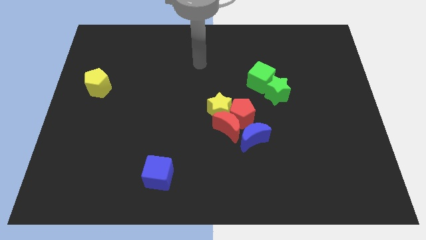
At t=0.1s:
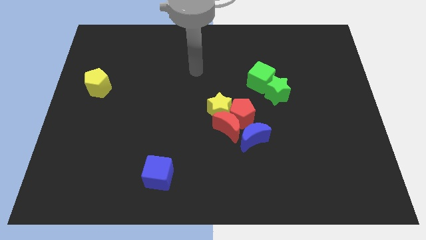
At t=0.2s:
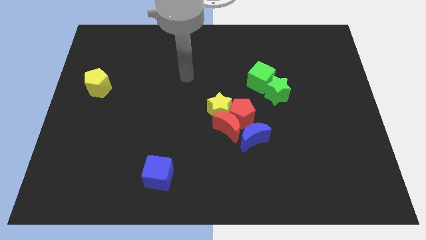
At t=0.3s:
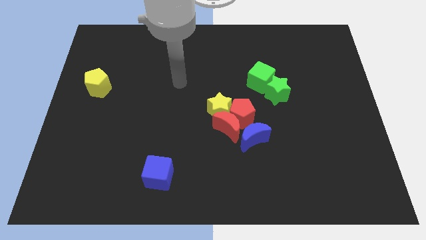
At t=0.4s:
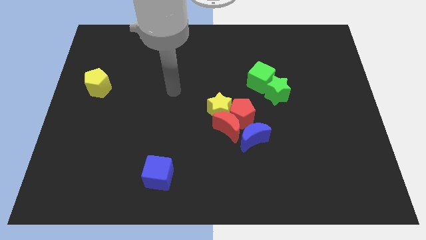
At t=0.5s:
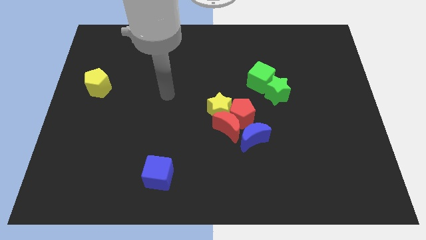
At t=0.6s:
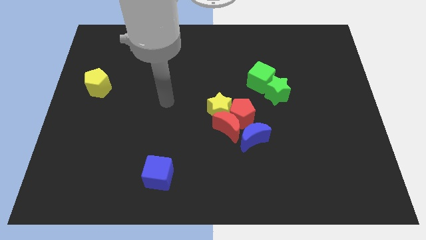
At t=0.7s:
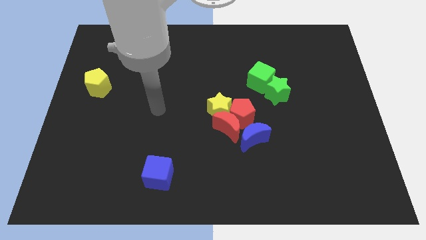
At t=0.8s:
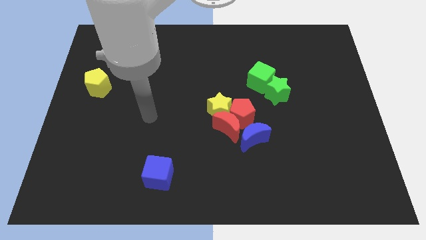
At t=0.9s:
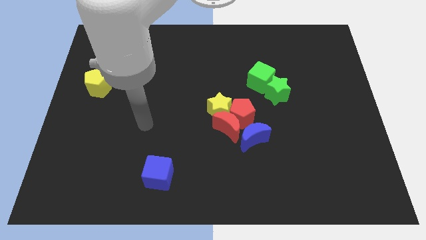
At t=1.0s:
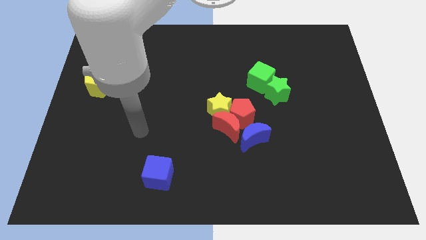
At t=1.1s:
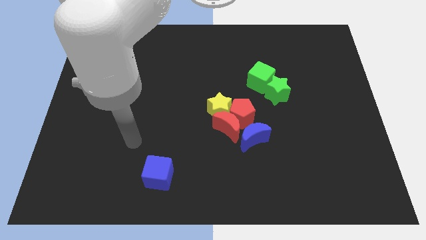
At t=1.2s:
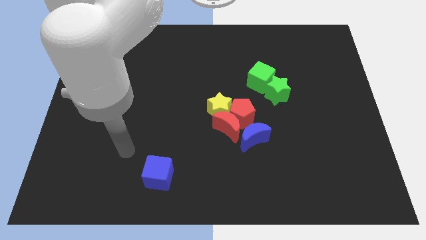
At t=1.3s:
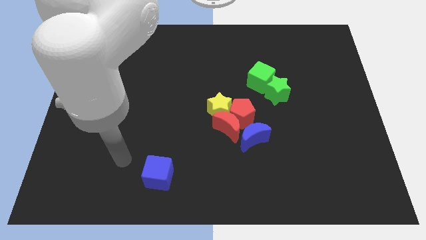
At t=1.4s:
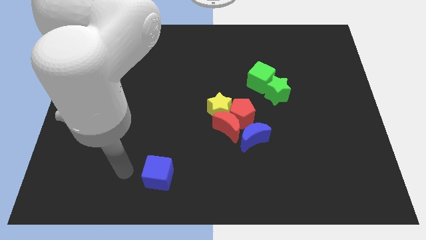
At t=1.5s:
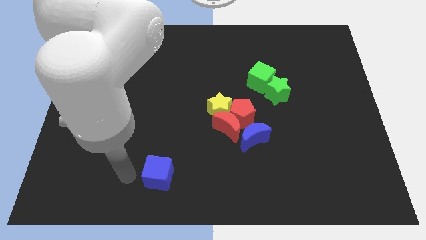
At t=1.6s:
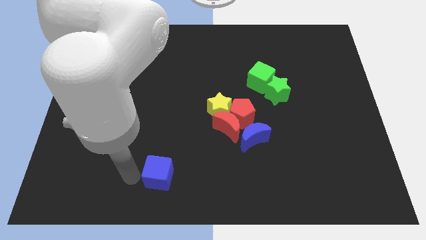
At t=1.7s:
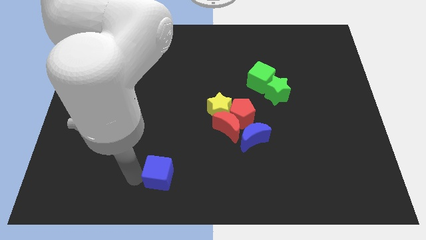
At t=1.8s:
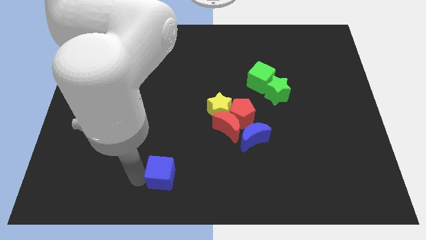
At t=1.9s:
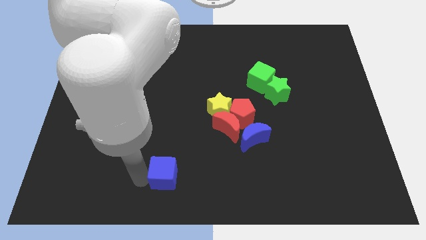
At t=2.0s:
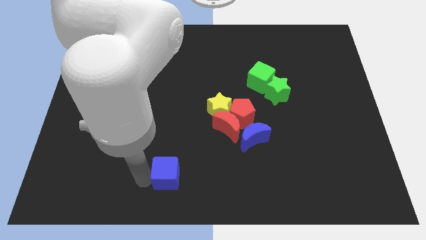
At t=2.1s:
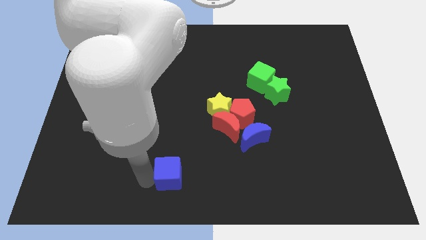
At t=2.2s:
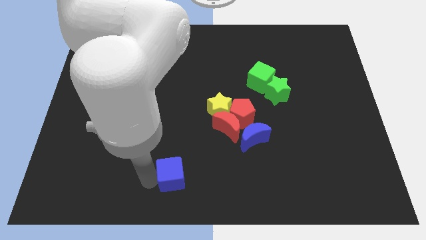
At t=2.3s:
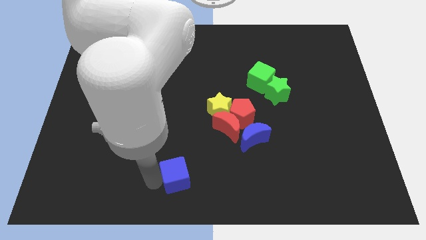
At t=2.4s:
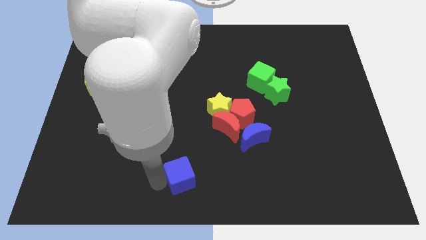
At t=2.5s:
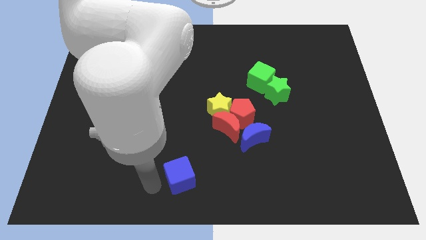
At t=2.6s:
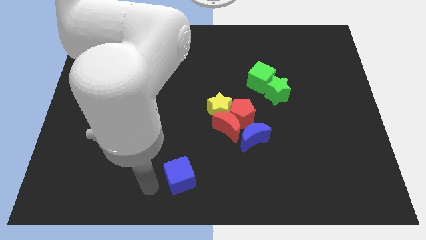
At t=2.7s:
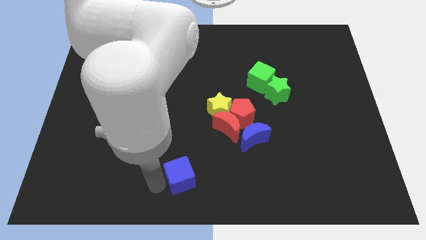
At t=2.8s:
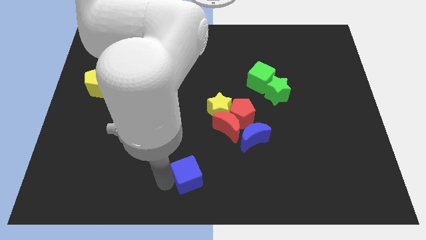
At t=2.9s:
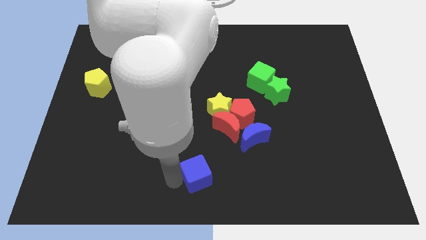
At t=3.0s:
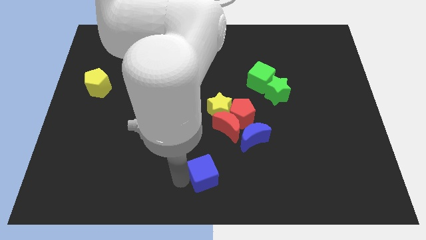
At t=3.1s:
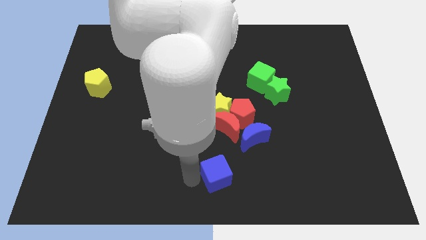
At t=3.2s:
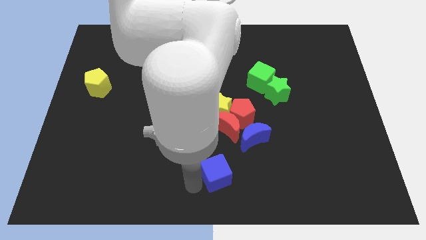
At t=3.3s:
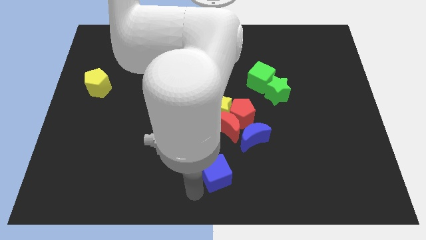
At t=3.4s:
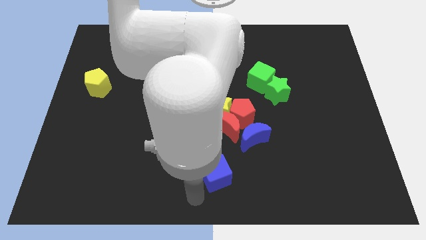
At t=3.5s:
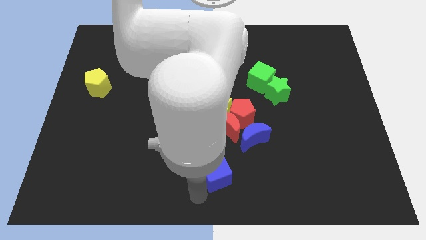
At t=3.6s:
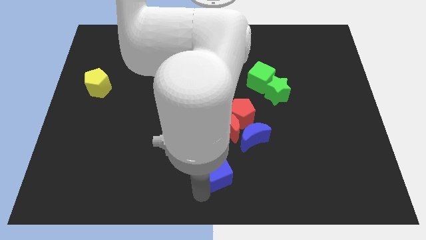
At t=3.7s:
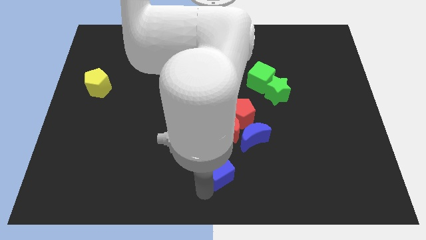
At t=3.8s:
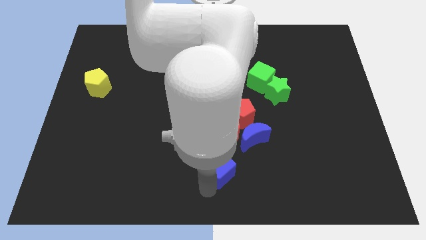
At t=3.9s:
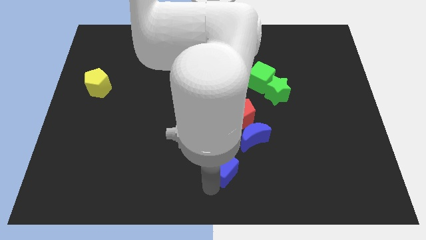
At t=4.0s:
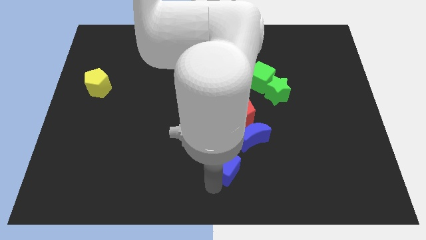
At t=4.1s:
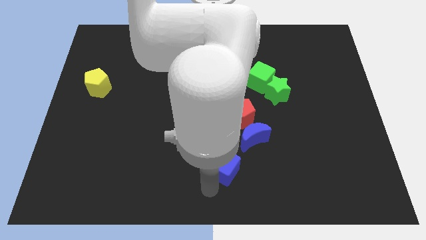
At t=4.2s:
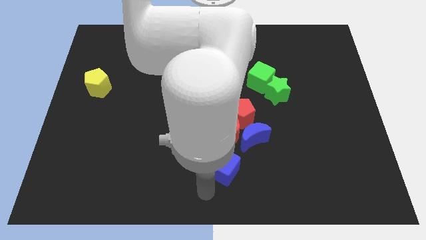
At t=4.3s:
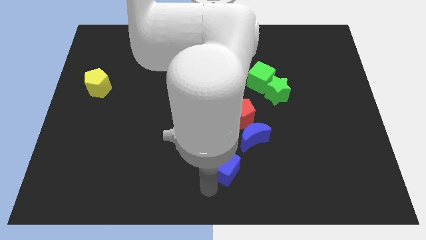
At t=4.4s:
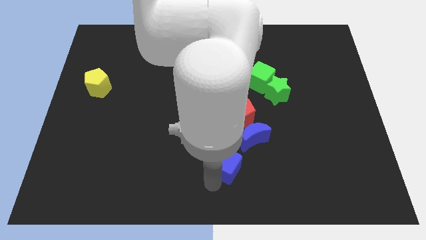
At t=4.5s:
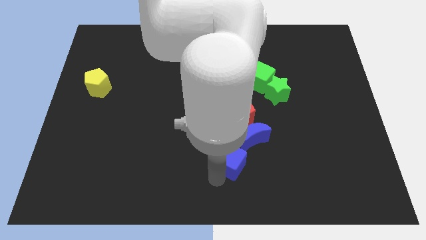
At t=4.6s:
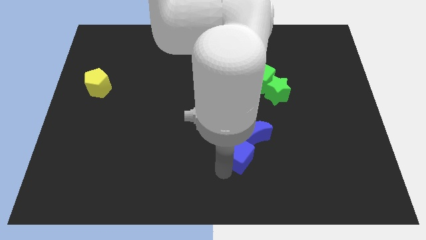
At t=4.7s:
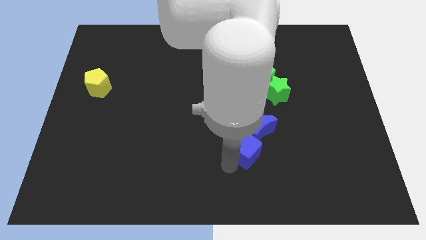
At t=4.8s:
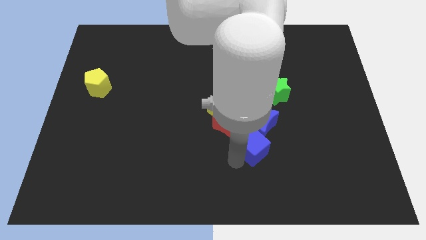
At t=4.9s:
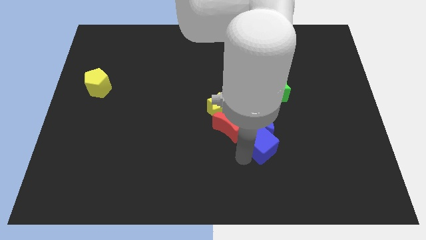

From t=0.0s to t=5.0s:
slide the blue cube close to the blue moon

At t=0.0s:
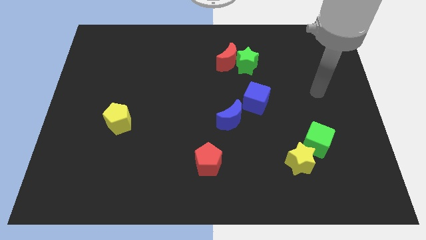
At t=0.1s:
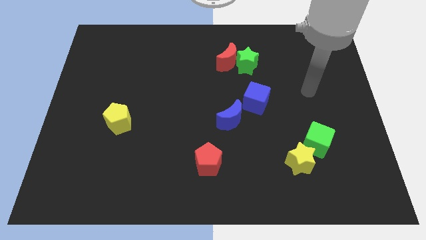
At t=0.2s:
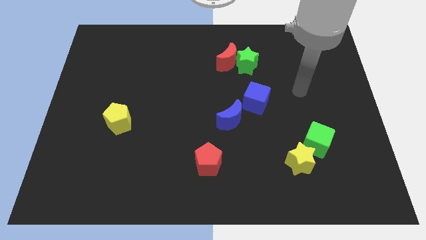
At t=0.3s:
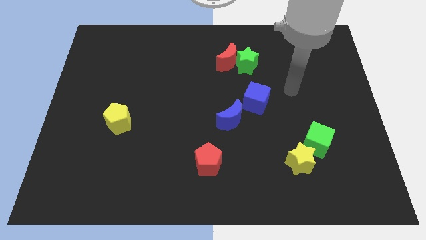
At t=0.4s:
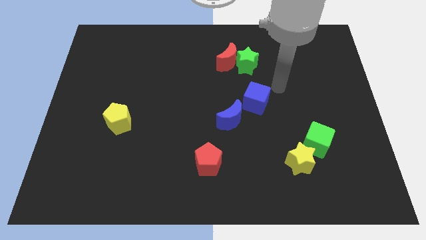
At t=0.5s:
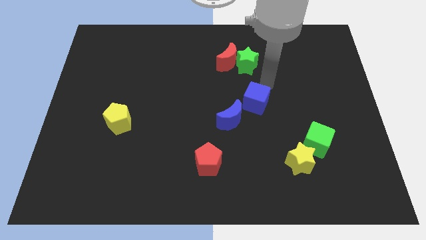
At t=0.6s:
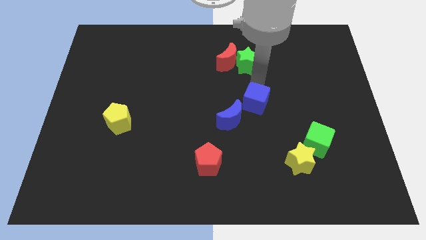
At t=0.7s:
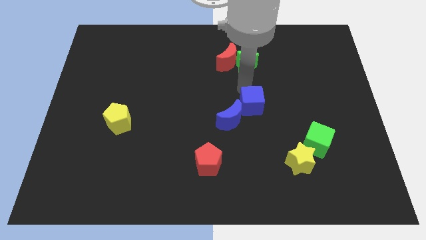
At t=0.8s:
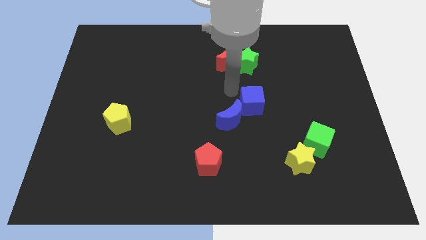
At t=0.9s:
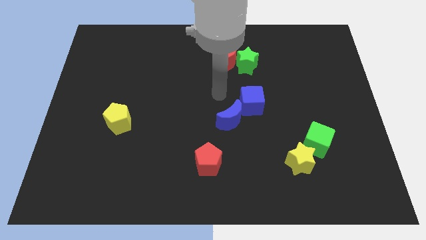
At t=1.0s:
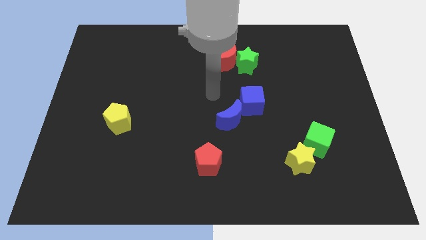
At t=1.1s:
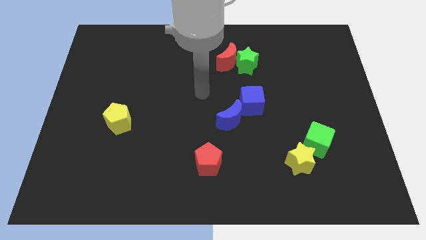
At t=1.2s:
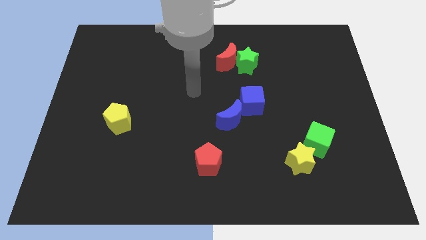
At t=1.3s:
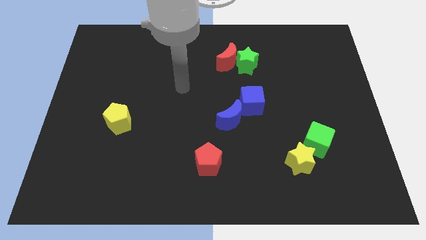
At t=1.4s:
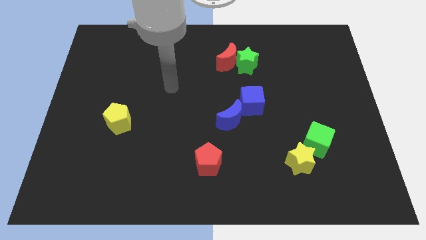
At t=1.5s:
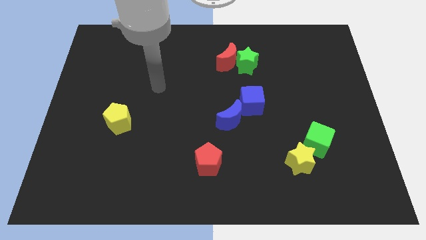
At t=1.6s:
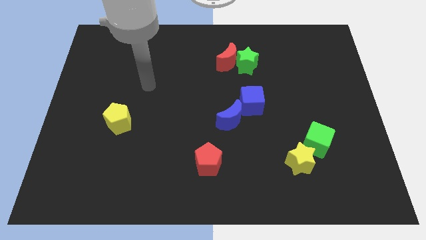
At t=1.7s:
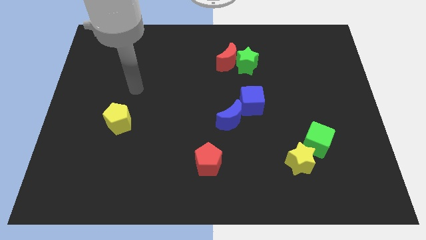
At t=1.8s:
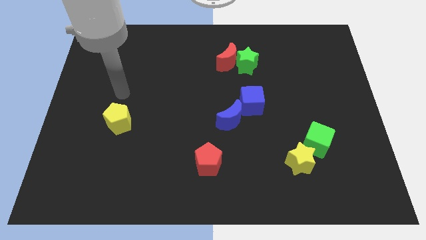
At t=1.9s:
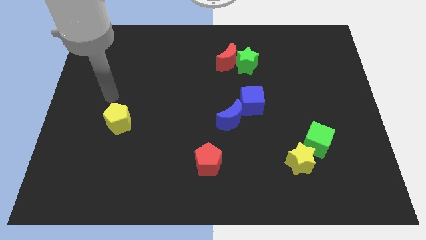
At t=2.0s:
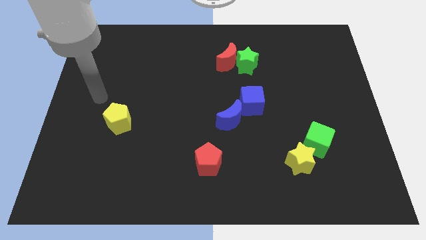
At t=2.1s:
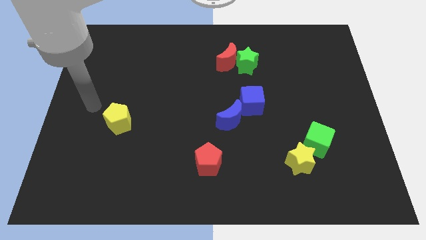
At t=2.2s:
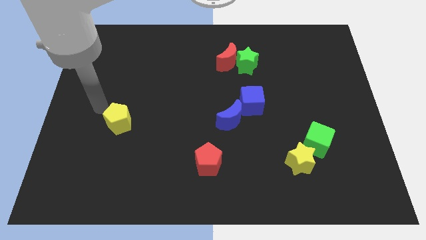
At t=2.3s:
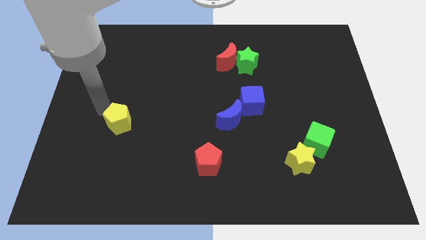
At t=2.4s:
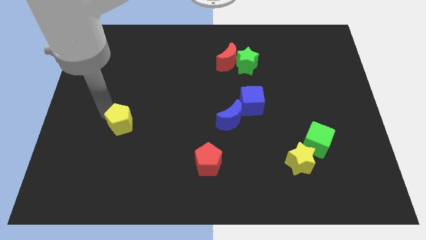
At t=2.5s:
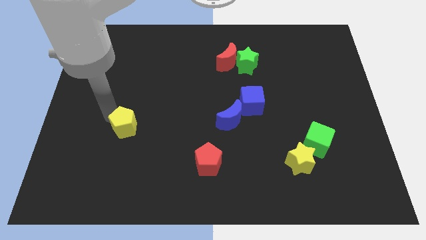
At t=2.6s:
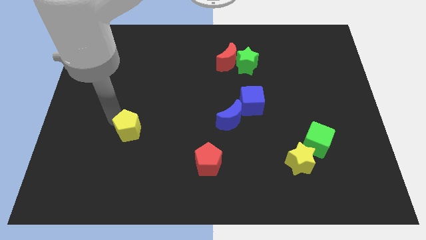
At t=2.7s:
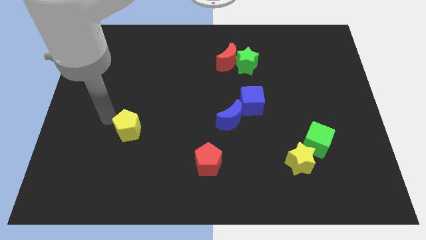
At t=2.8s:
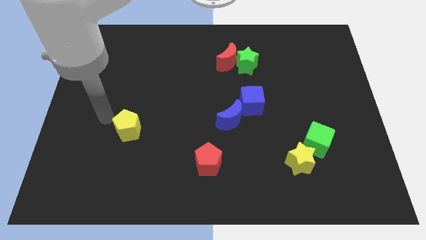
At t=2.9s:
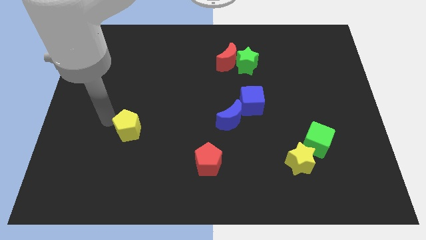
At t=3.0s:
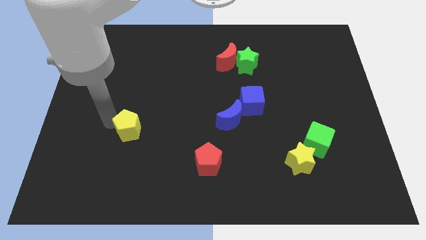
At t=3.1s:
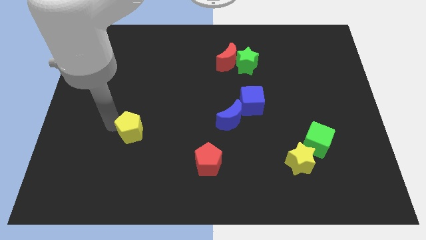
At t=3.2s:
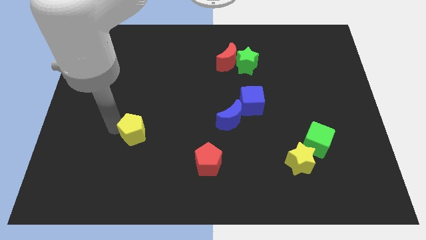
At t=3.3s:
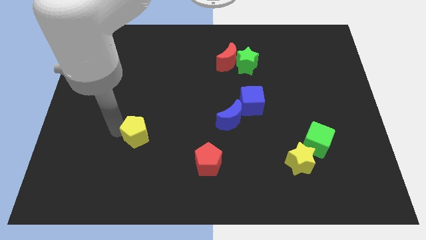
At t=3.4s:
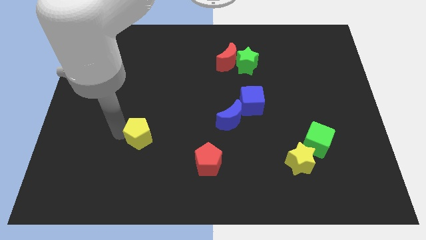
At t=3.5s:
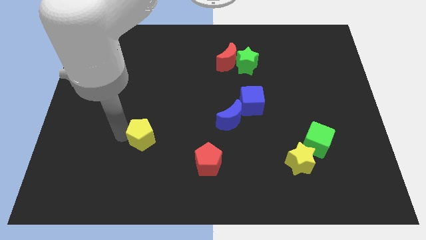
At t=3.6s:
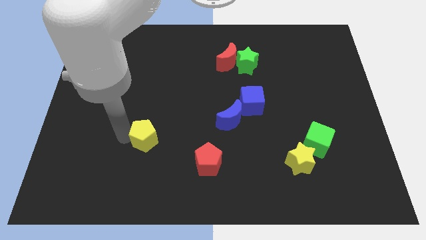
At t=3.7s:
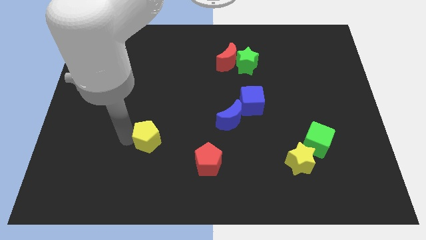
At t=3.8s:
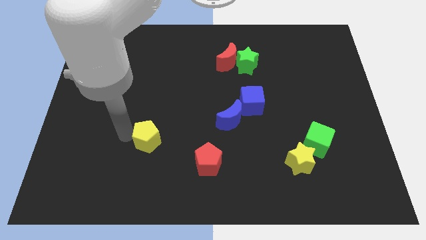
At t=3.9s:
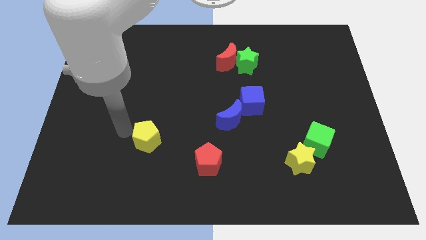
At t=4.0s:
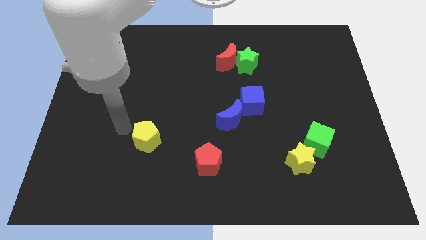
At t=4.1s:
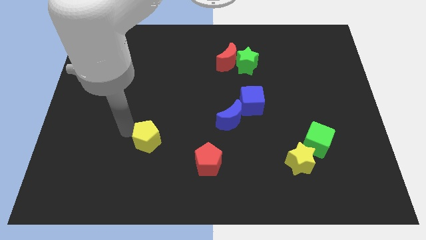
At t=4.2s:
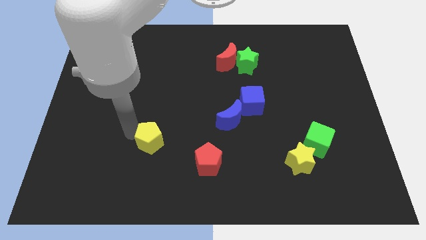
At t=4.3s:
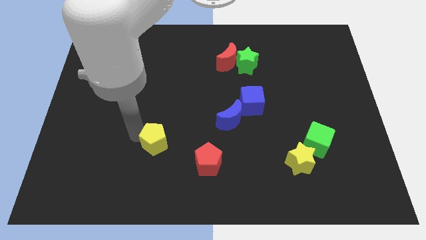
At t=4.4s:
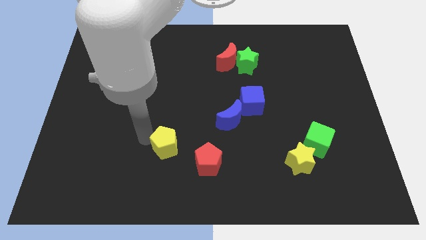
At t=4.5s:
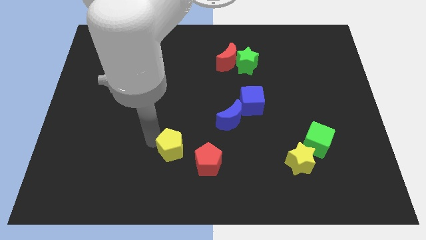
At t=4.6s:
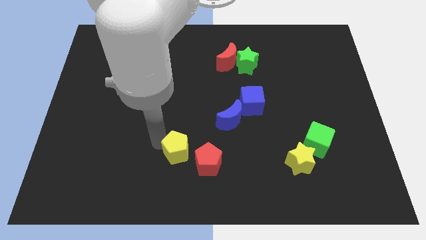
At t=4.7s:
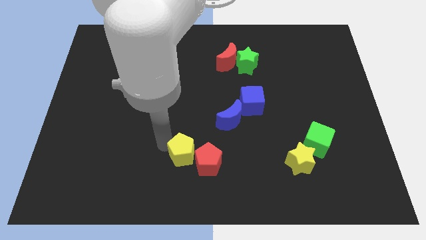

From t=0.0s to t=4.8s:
move the yellow pentagon next to the red pentagon
